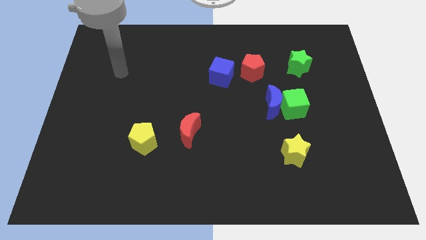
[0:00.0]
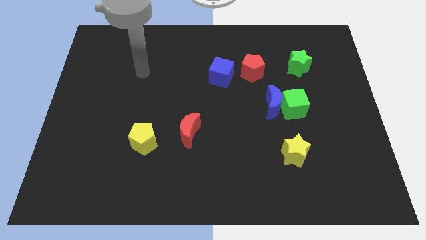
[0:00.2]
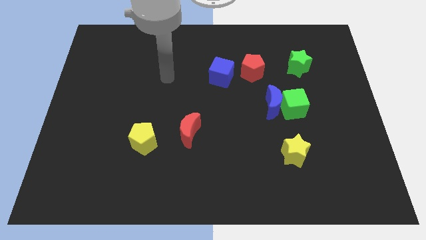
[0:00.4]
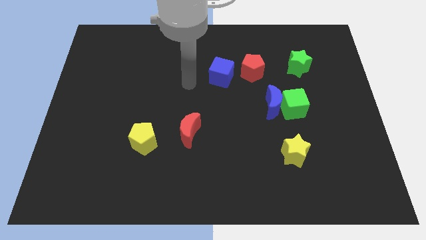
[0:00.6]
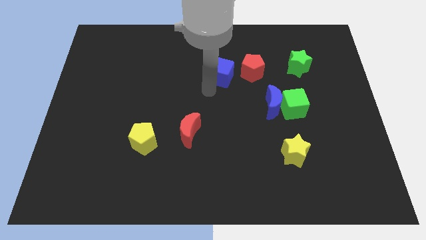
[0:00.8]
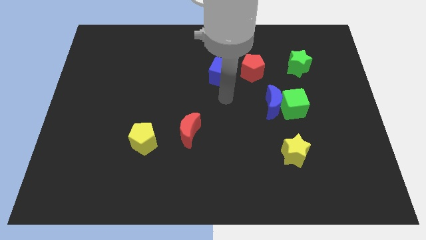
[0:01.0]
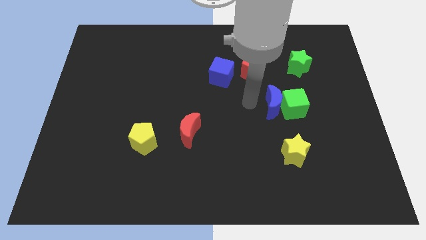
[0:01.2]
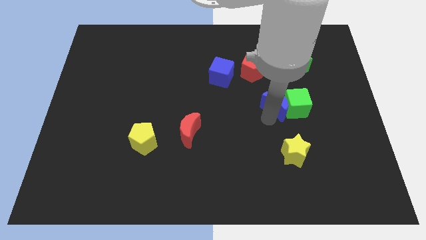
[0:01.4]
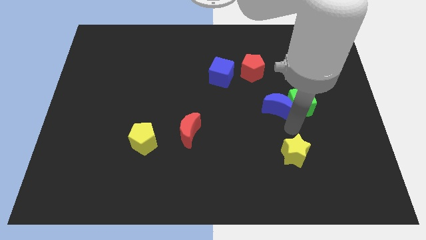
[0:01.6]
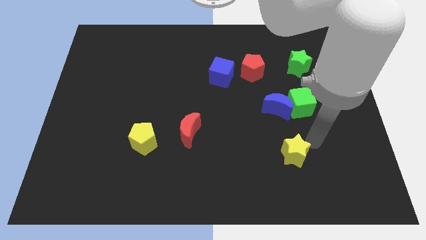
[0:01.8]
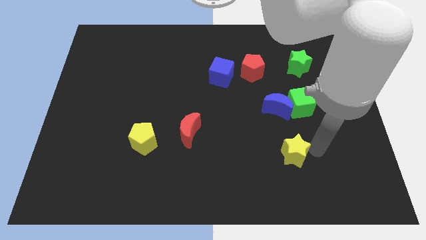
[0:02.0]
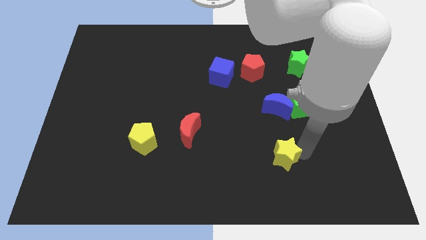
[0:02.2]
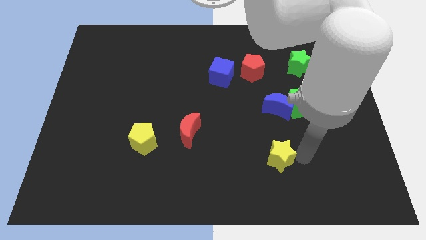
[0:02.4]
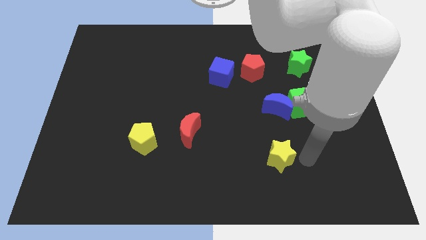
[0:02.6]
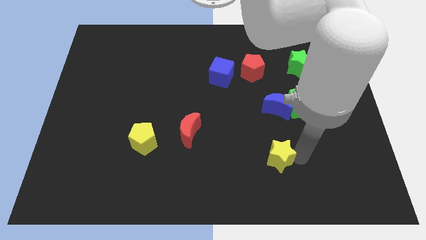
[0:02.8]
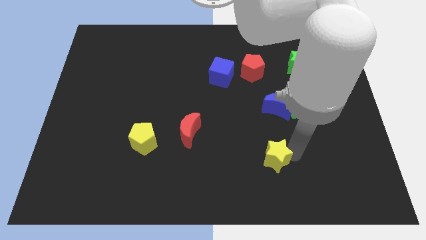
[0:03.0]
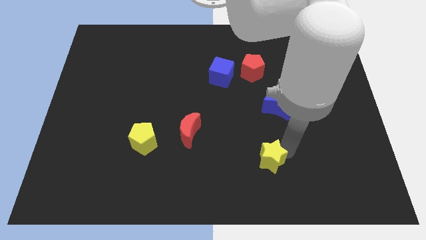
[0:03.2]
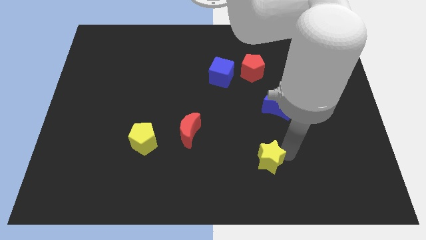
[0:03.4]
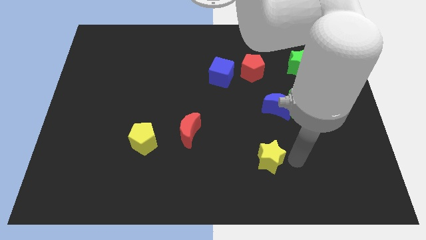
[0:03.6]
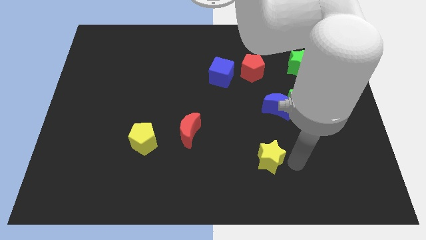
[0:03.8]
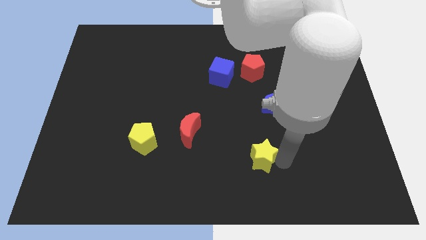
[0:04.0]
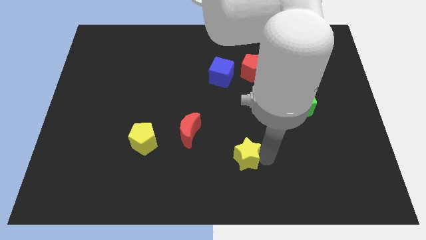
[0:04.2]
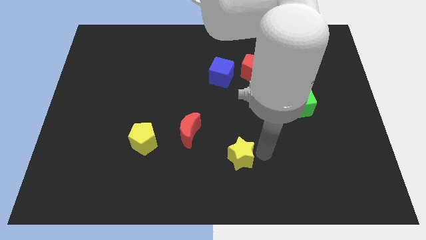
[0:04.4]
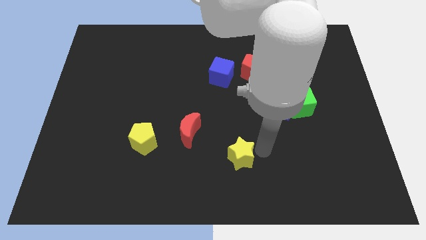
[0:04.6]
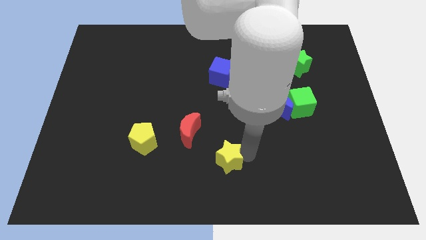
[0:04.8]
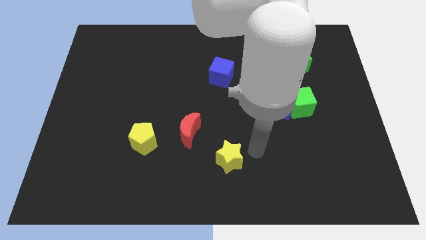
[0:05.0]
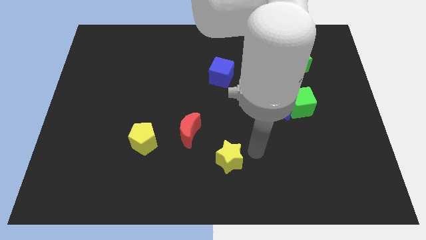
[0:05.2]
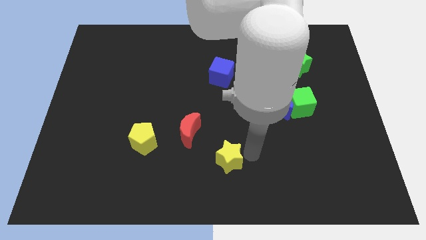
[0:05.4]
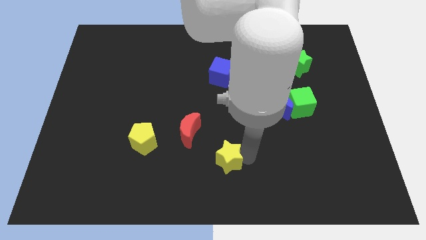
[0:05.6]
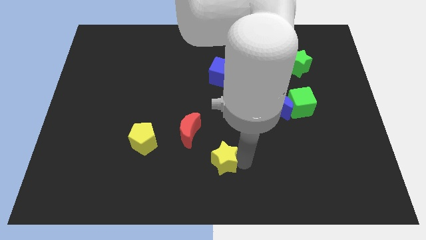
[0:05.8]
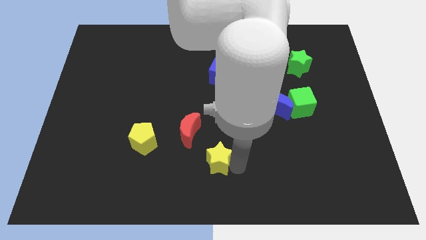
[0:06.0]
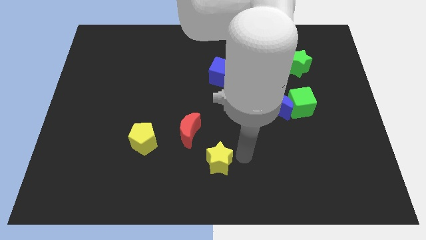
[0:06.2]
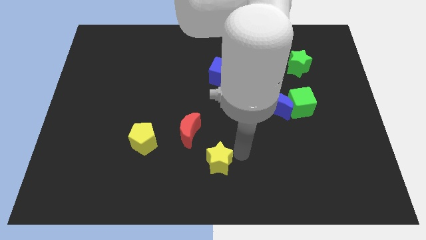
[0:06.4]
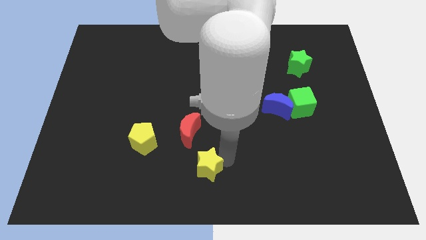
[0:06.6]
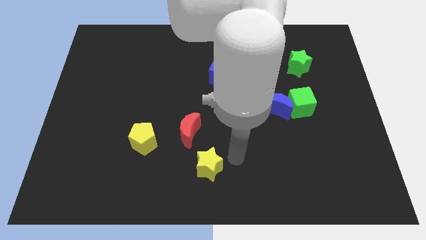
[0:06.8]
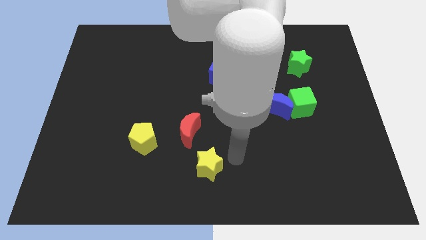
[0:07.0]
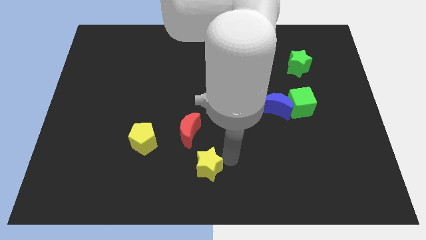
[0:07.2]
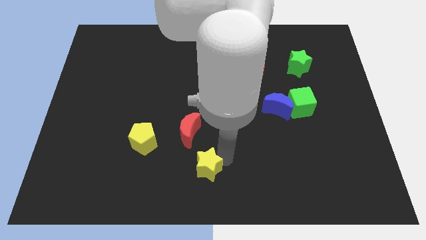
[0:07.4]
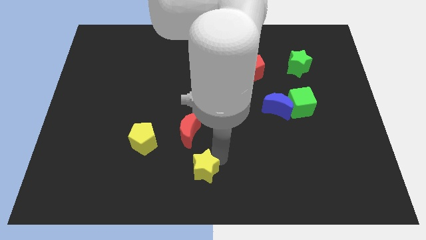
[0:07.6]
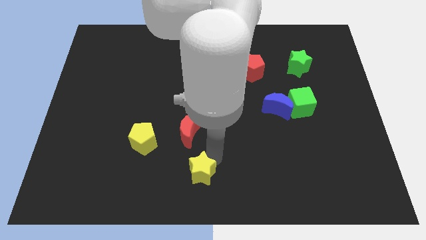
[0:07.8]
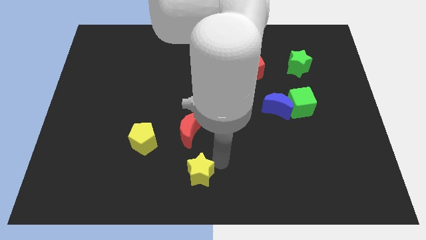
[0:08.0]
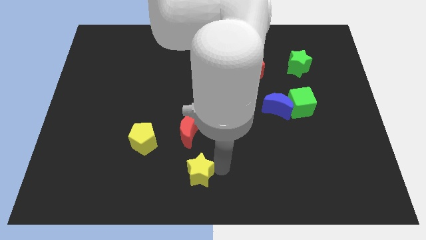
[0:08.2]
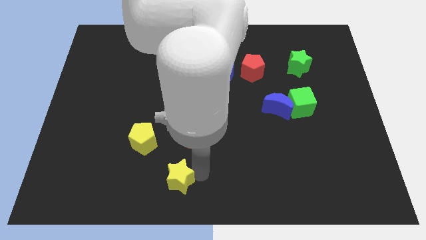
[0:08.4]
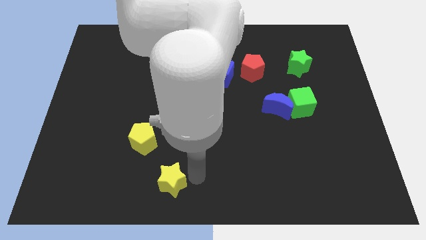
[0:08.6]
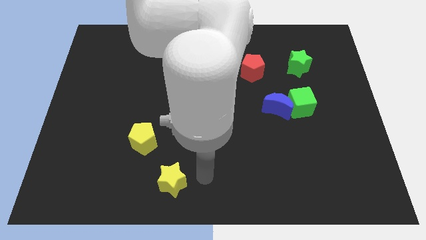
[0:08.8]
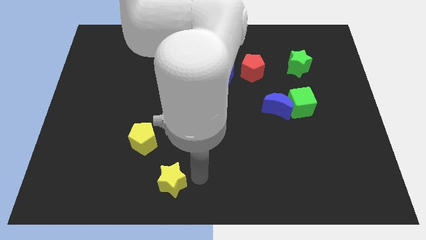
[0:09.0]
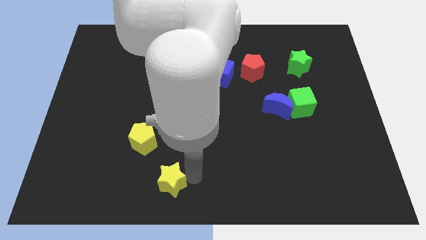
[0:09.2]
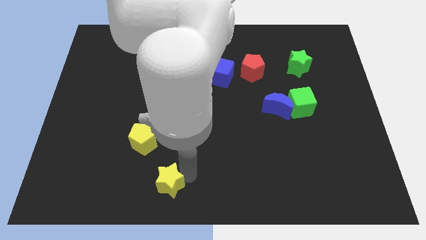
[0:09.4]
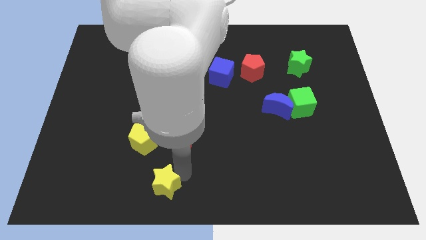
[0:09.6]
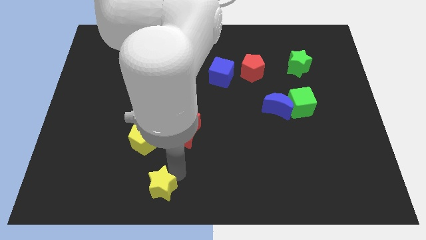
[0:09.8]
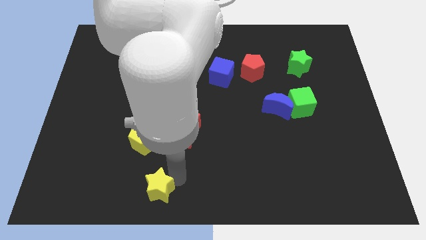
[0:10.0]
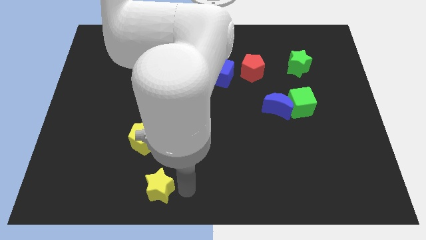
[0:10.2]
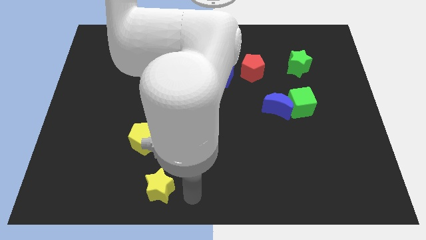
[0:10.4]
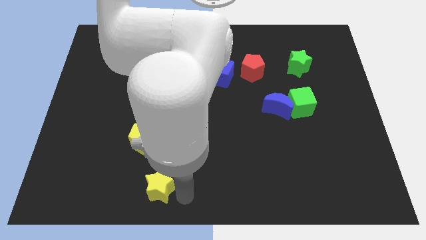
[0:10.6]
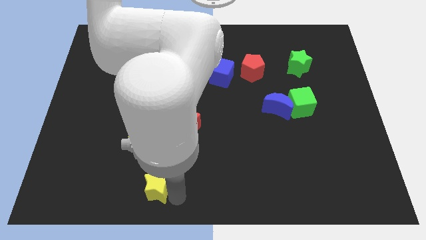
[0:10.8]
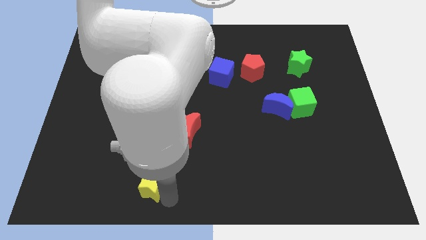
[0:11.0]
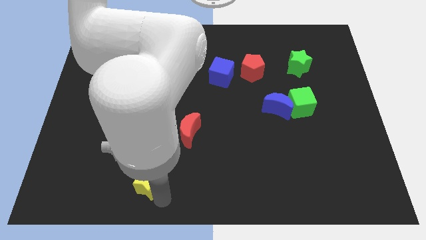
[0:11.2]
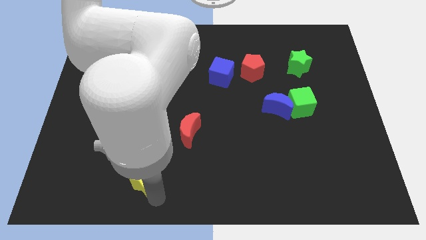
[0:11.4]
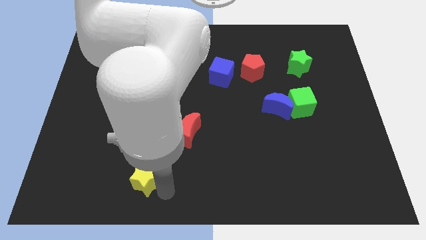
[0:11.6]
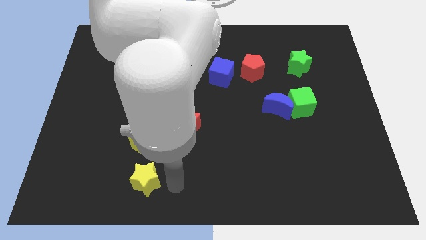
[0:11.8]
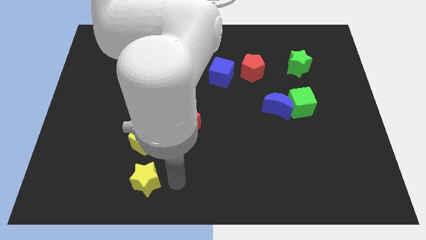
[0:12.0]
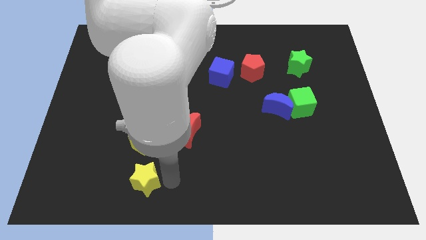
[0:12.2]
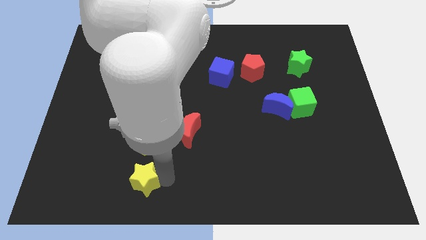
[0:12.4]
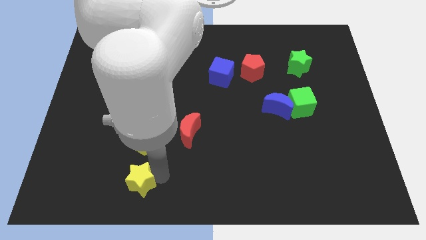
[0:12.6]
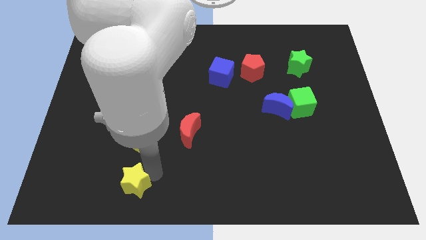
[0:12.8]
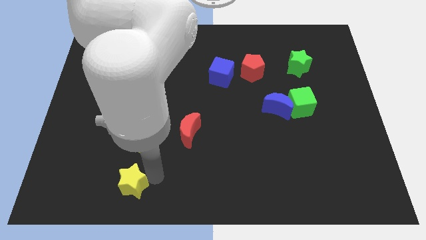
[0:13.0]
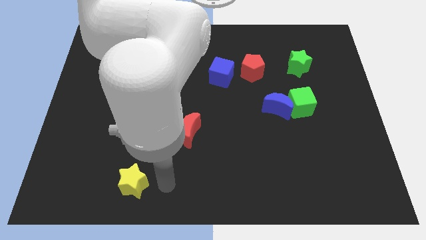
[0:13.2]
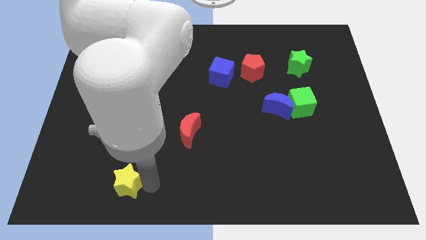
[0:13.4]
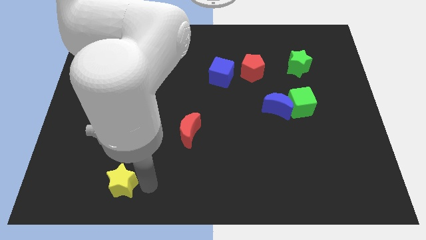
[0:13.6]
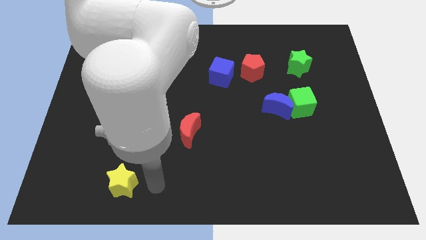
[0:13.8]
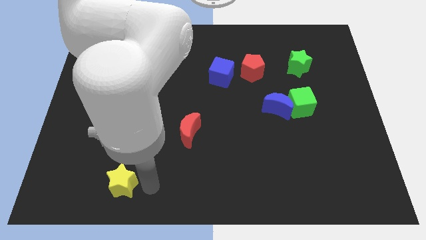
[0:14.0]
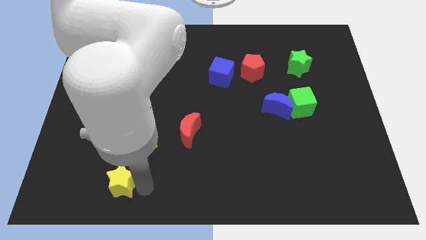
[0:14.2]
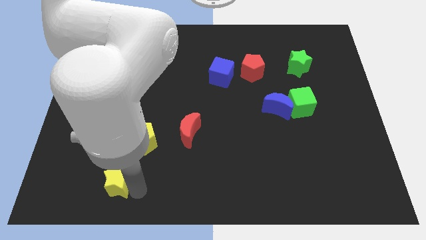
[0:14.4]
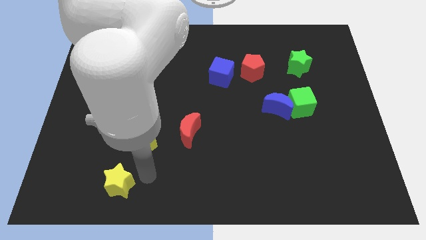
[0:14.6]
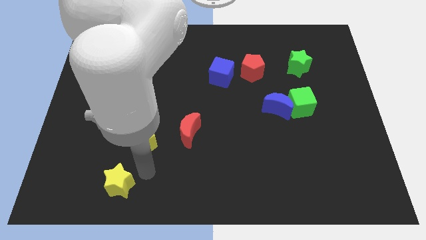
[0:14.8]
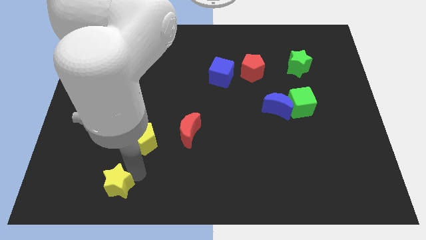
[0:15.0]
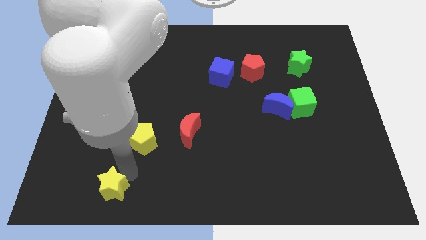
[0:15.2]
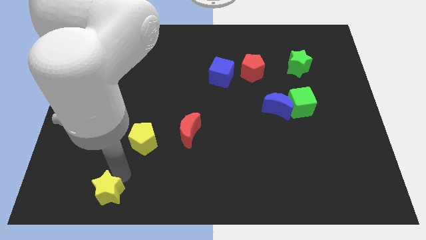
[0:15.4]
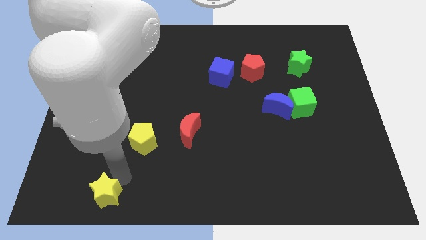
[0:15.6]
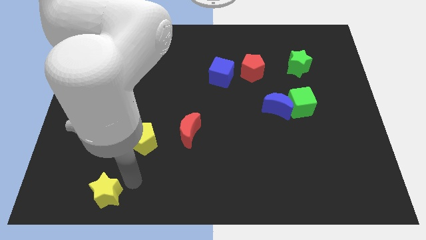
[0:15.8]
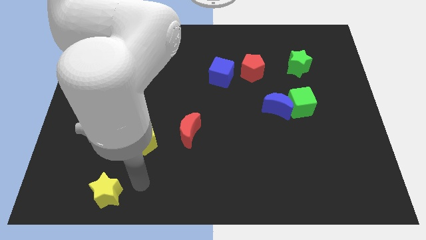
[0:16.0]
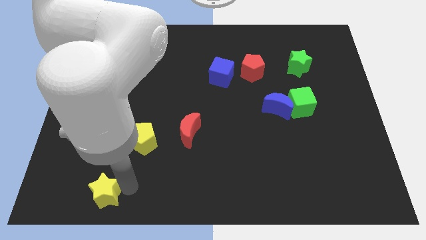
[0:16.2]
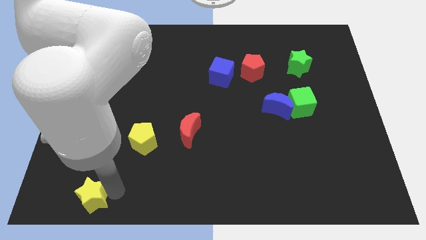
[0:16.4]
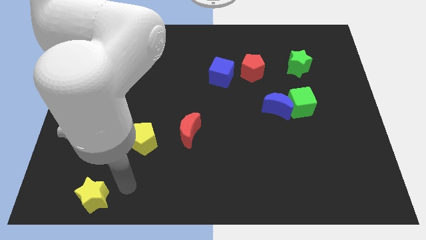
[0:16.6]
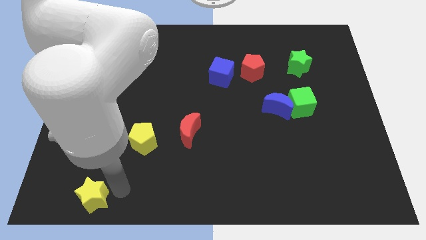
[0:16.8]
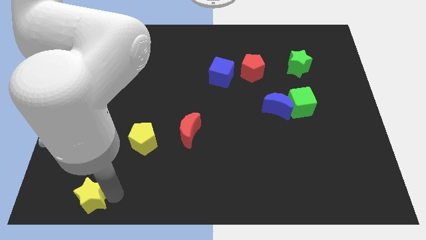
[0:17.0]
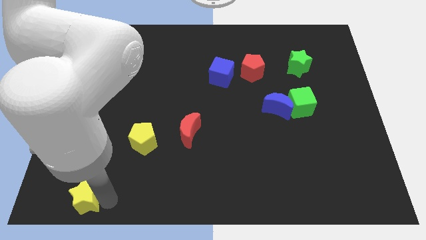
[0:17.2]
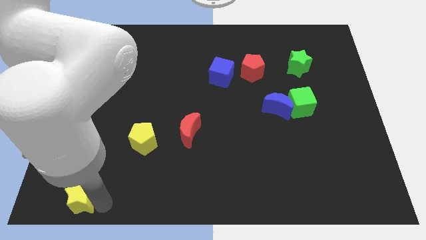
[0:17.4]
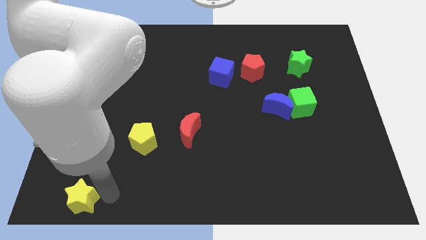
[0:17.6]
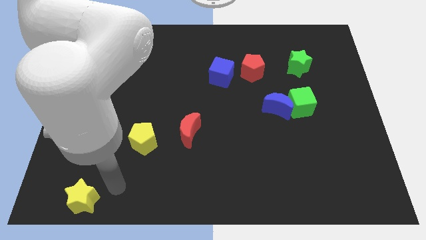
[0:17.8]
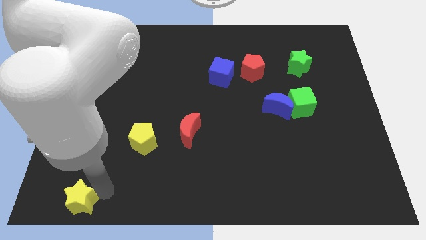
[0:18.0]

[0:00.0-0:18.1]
put the yellow star to the bottom left of the board
